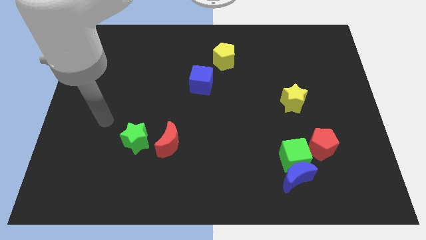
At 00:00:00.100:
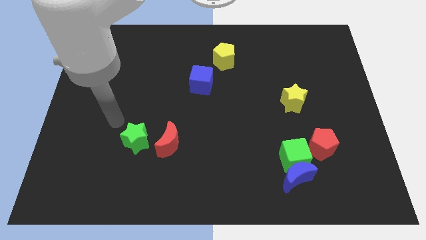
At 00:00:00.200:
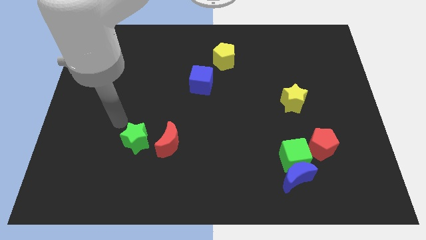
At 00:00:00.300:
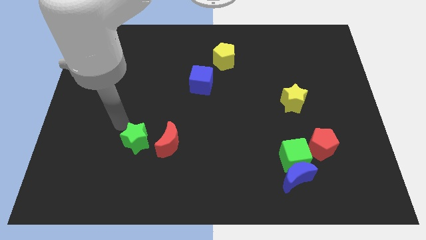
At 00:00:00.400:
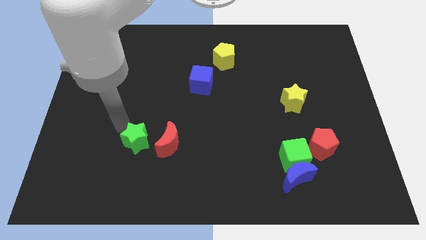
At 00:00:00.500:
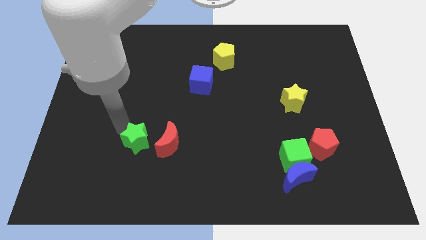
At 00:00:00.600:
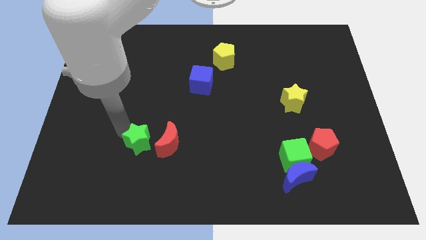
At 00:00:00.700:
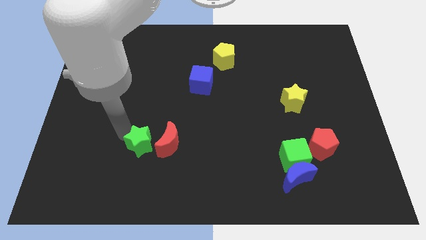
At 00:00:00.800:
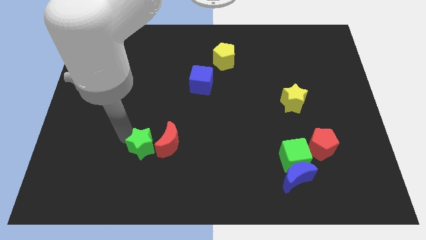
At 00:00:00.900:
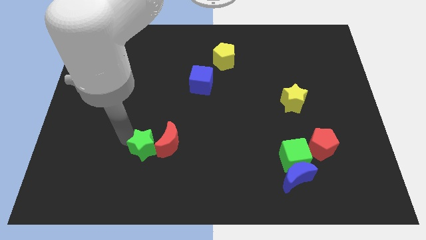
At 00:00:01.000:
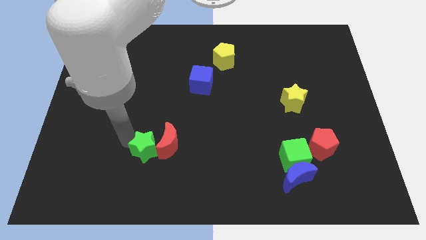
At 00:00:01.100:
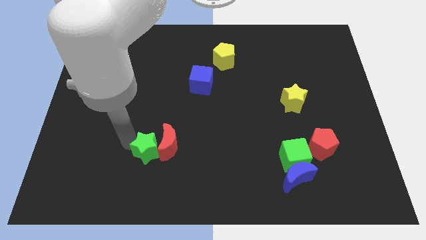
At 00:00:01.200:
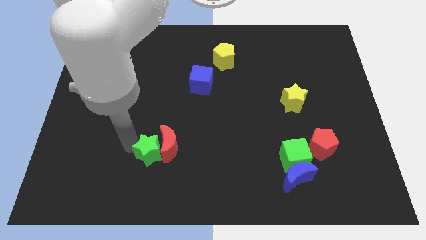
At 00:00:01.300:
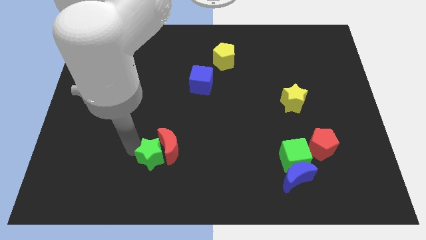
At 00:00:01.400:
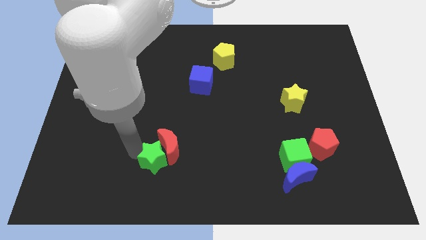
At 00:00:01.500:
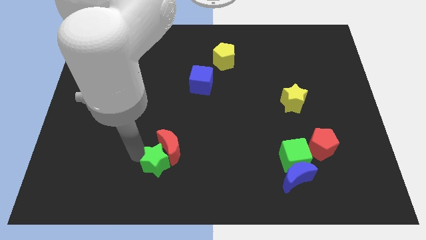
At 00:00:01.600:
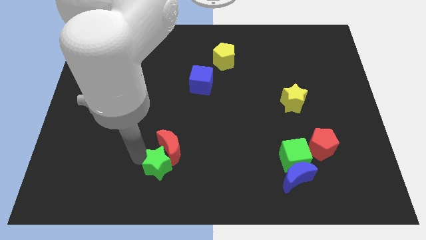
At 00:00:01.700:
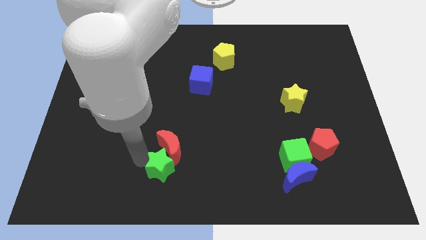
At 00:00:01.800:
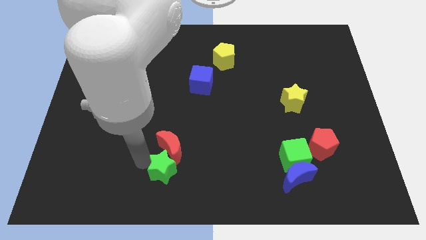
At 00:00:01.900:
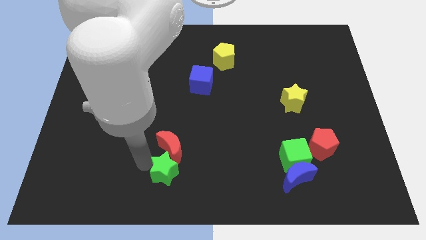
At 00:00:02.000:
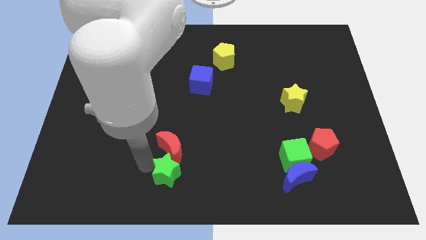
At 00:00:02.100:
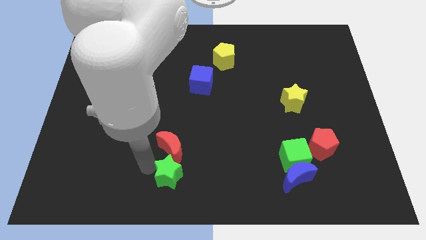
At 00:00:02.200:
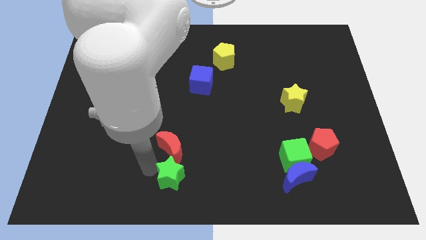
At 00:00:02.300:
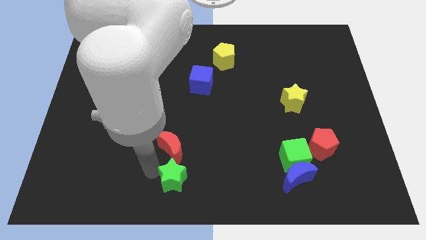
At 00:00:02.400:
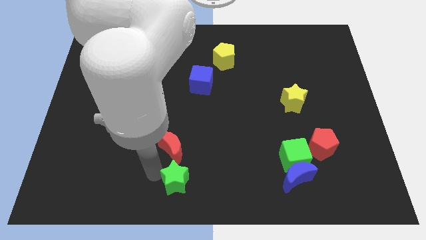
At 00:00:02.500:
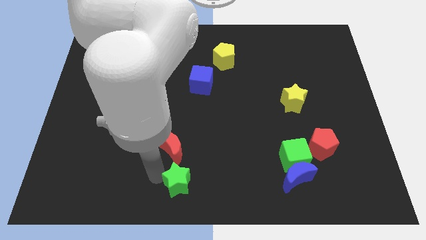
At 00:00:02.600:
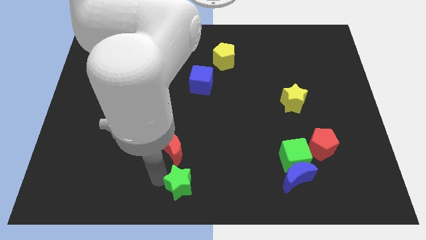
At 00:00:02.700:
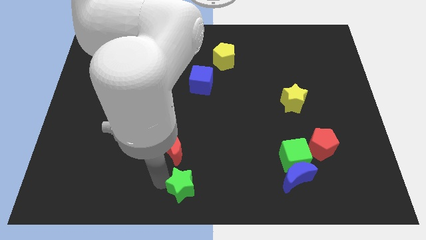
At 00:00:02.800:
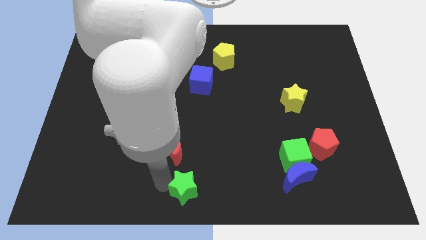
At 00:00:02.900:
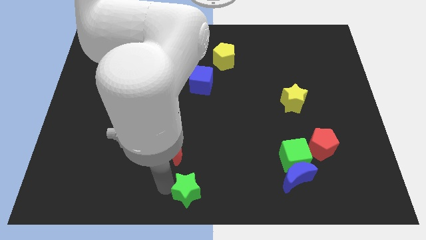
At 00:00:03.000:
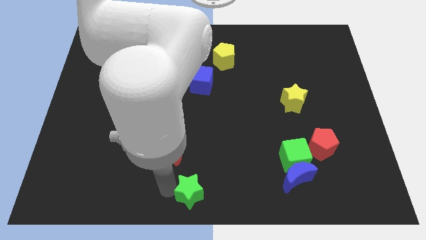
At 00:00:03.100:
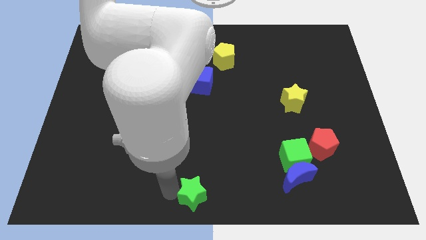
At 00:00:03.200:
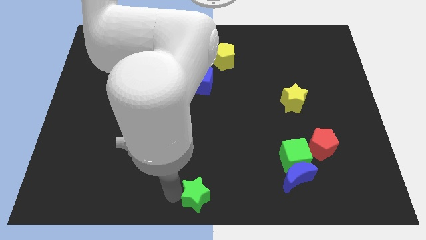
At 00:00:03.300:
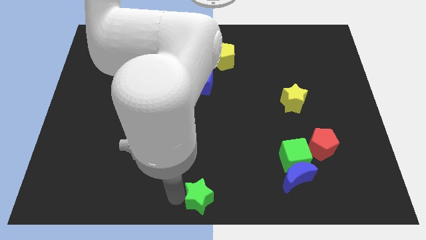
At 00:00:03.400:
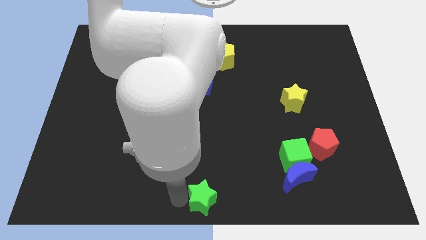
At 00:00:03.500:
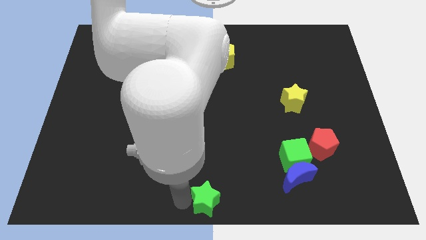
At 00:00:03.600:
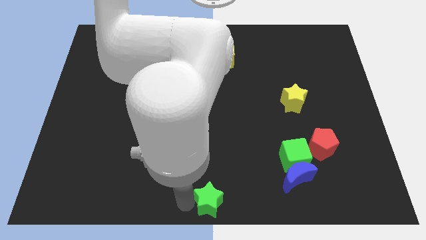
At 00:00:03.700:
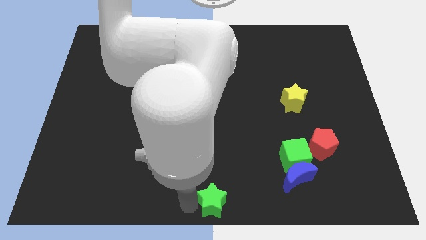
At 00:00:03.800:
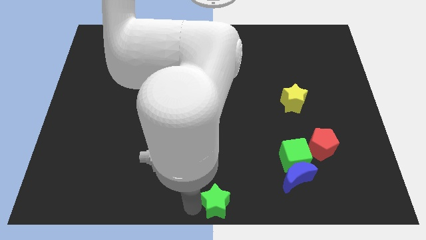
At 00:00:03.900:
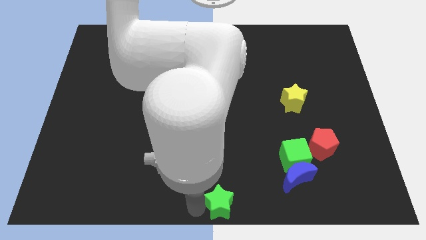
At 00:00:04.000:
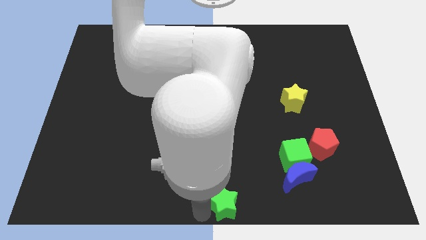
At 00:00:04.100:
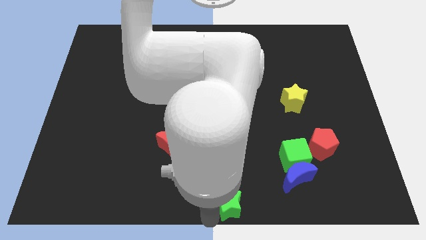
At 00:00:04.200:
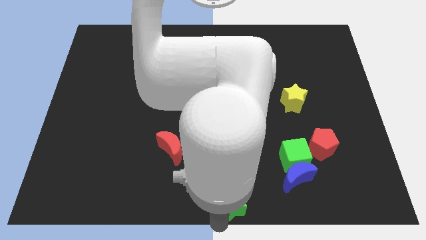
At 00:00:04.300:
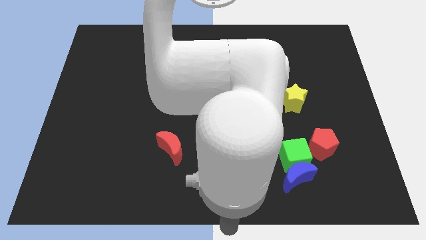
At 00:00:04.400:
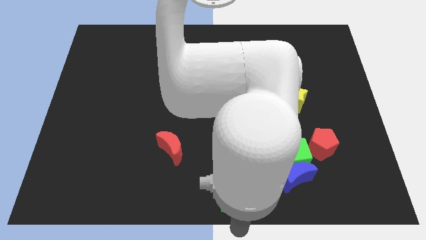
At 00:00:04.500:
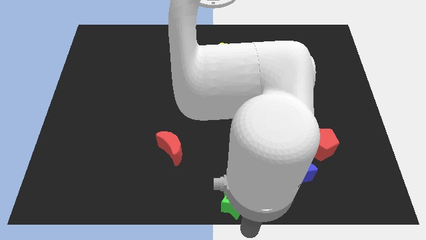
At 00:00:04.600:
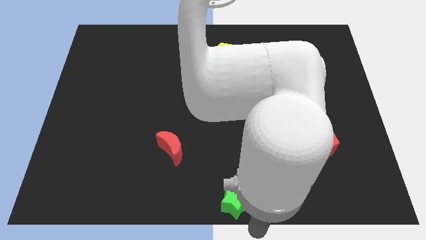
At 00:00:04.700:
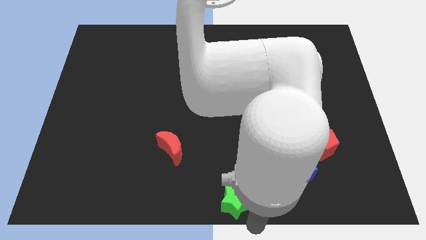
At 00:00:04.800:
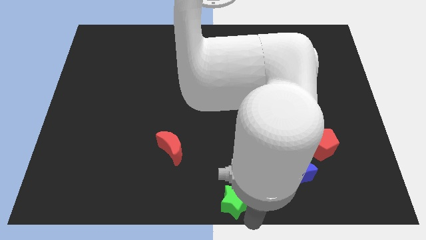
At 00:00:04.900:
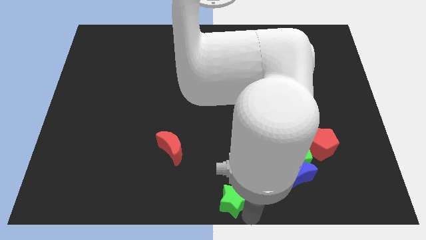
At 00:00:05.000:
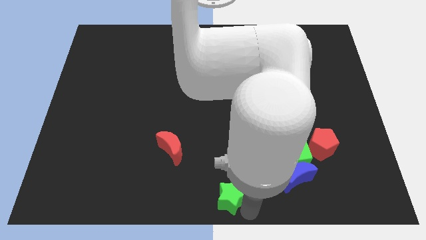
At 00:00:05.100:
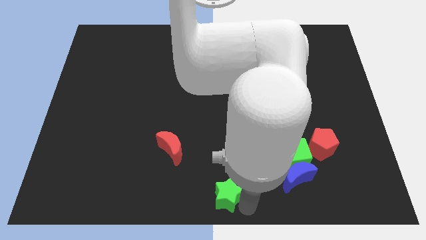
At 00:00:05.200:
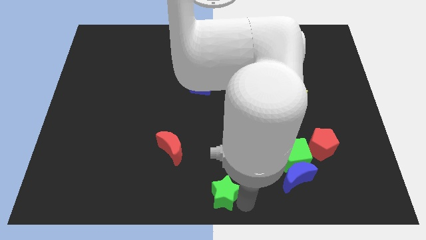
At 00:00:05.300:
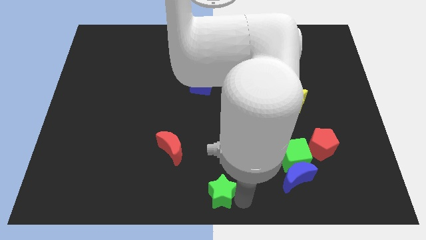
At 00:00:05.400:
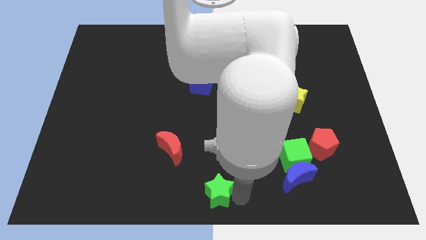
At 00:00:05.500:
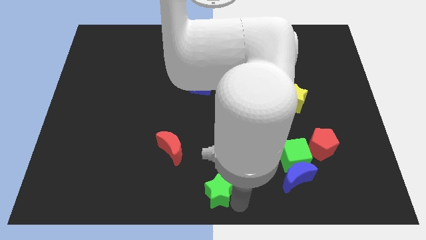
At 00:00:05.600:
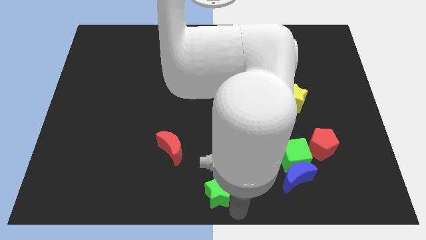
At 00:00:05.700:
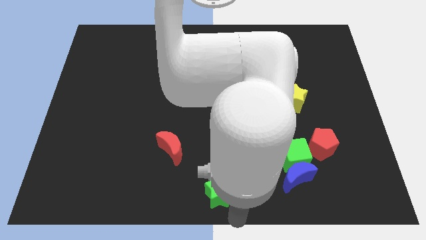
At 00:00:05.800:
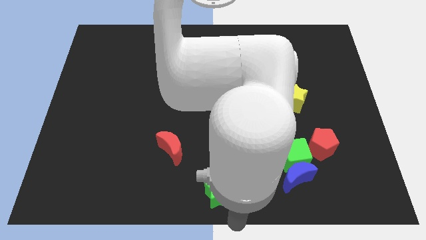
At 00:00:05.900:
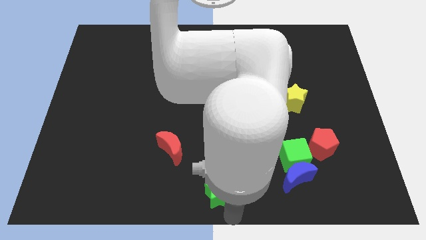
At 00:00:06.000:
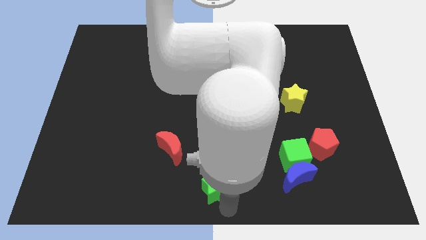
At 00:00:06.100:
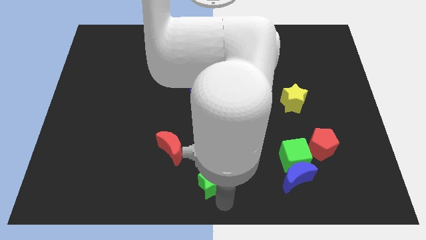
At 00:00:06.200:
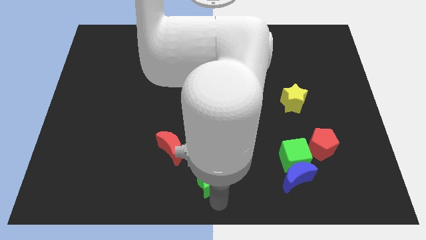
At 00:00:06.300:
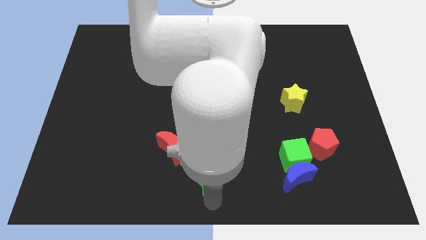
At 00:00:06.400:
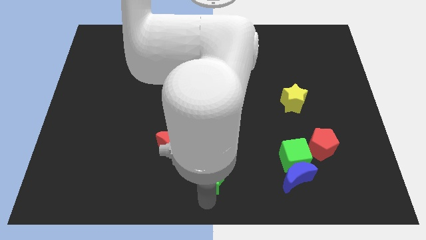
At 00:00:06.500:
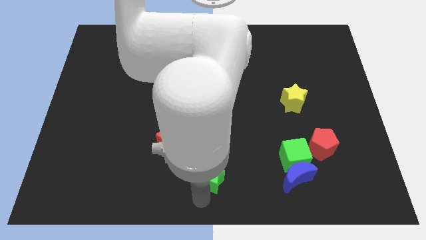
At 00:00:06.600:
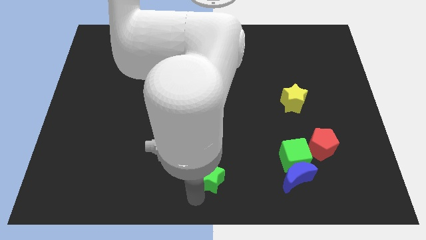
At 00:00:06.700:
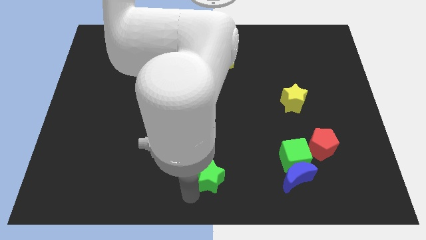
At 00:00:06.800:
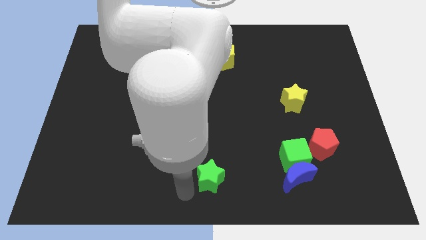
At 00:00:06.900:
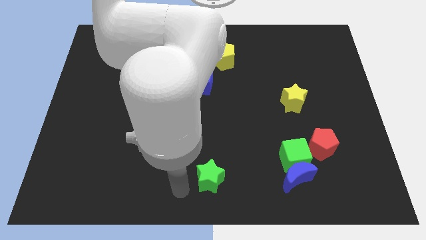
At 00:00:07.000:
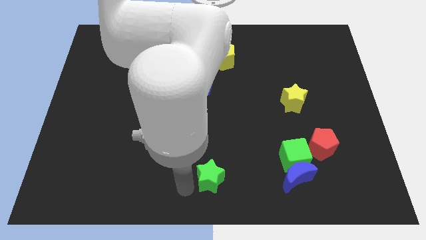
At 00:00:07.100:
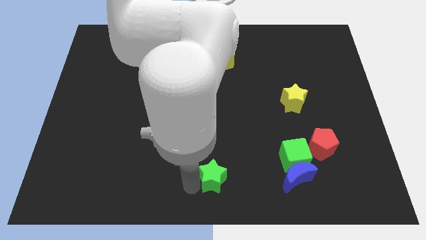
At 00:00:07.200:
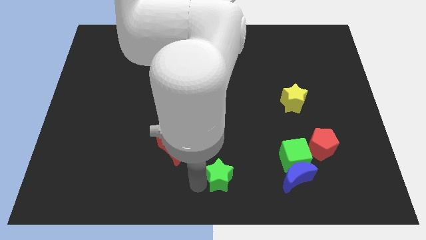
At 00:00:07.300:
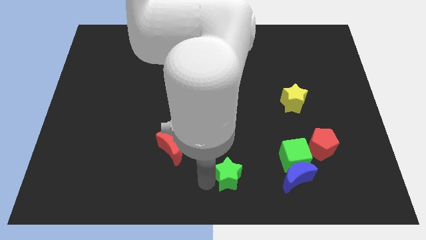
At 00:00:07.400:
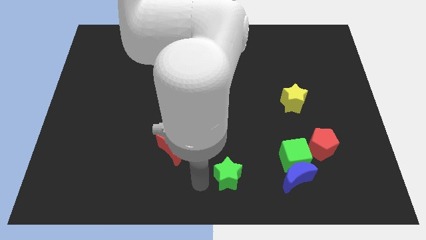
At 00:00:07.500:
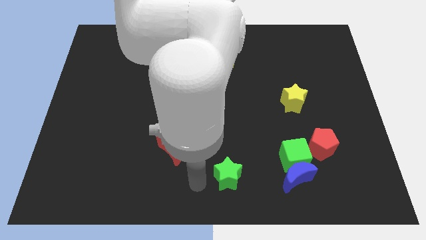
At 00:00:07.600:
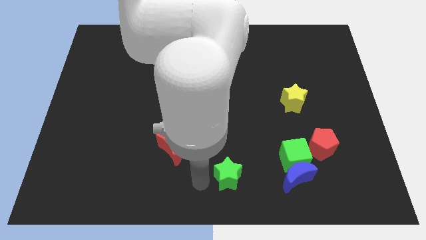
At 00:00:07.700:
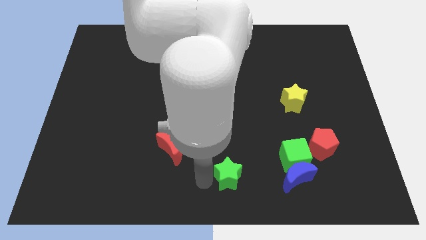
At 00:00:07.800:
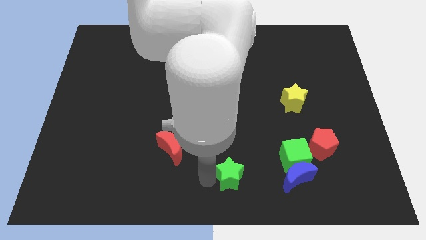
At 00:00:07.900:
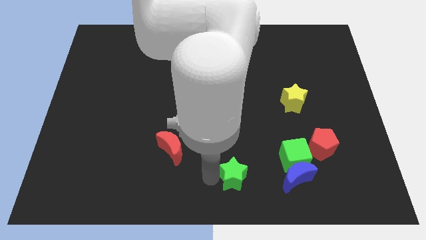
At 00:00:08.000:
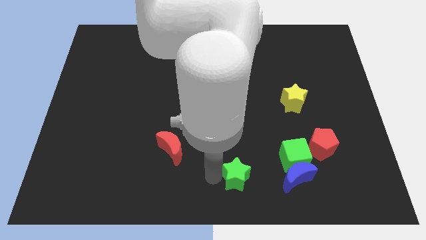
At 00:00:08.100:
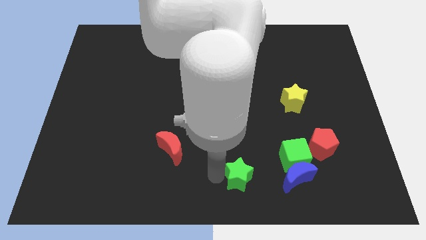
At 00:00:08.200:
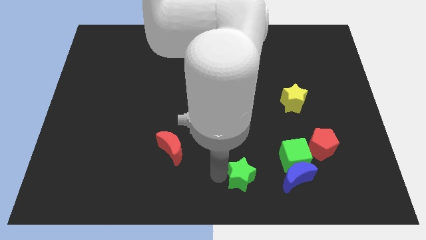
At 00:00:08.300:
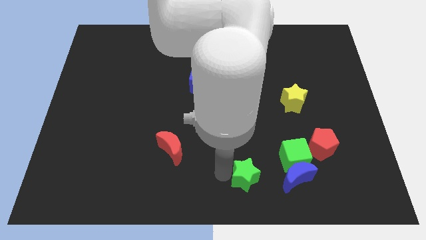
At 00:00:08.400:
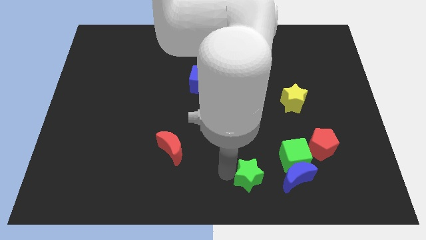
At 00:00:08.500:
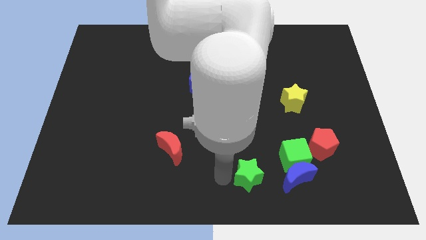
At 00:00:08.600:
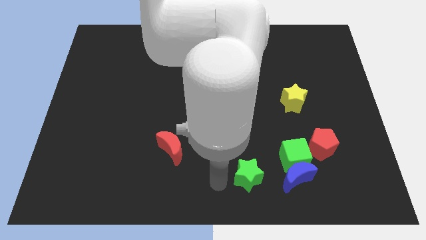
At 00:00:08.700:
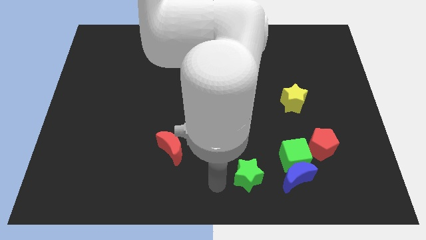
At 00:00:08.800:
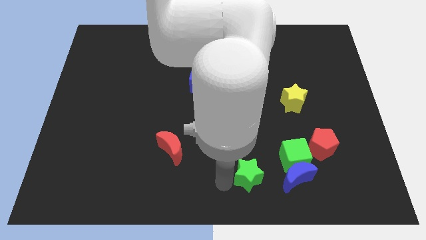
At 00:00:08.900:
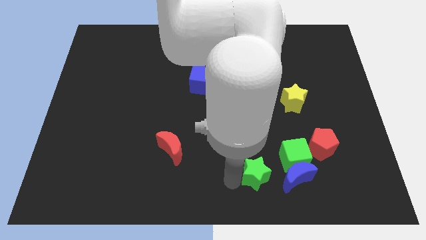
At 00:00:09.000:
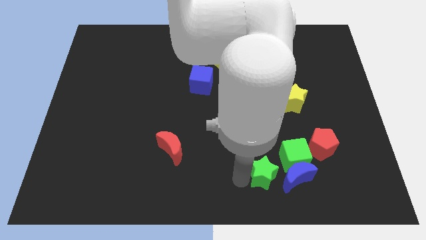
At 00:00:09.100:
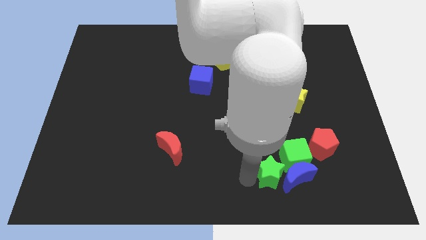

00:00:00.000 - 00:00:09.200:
move the green star towards the blue moon
